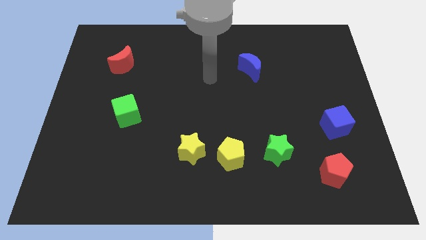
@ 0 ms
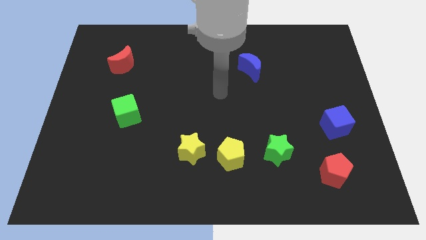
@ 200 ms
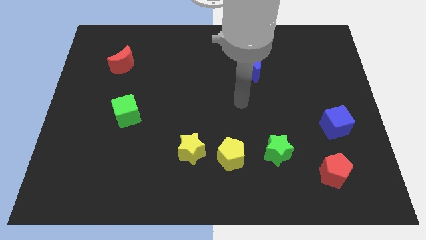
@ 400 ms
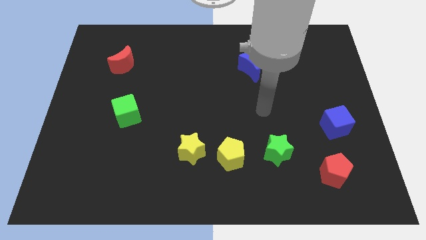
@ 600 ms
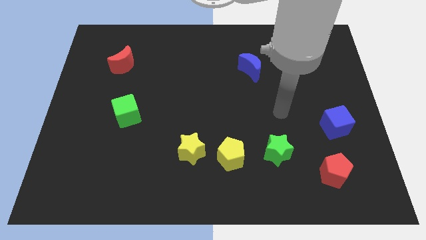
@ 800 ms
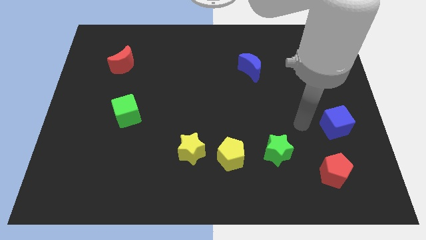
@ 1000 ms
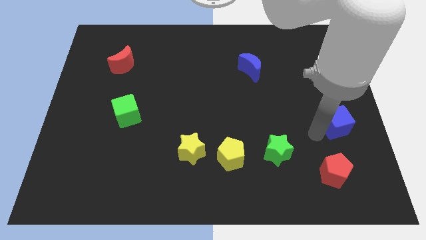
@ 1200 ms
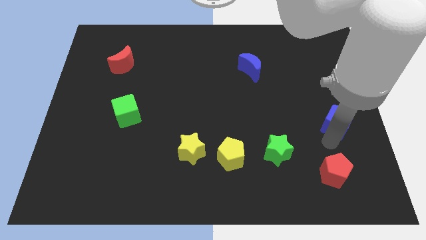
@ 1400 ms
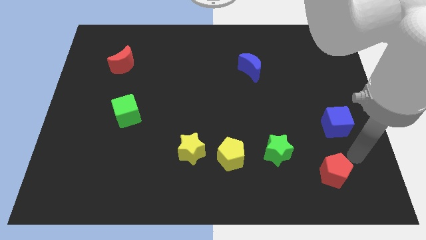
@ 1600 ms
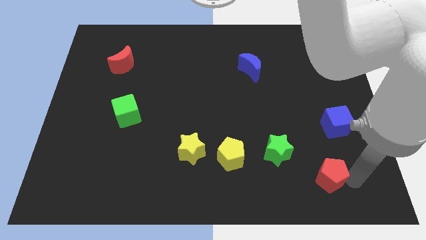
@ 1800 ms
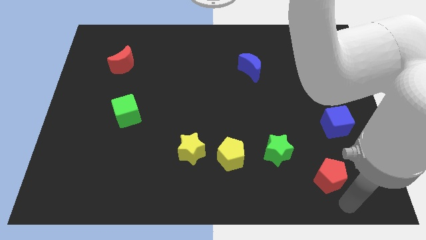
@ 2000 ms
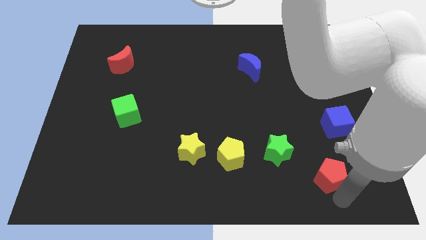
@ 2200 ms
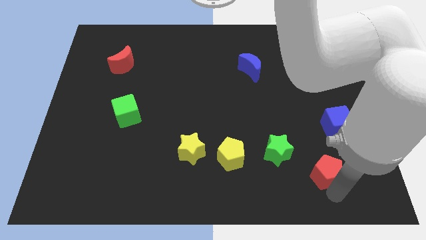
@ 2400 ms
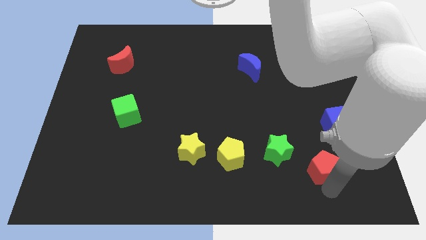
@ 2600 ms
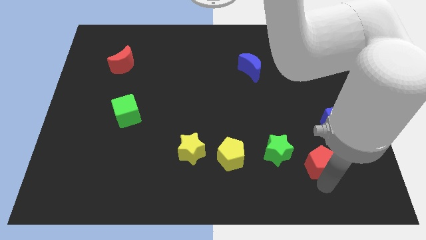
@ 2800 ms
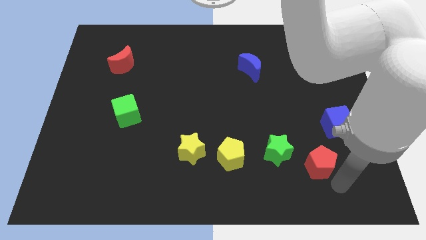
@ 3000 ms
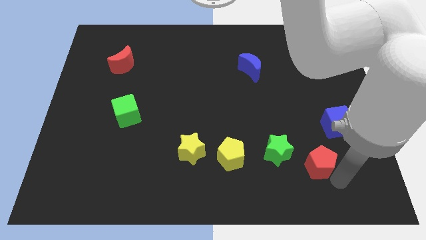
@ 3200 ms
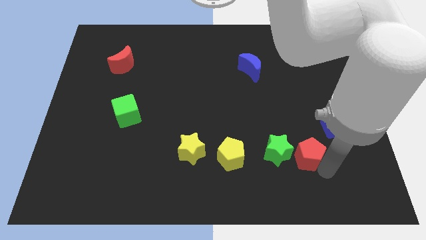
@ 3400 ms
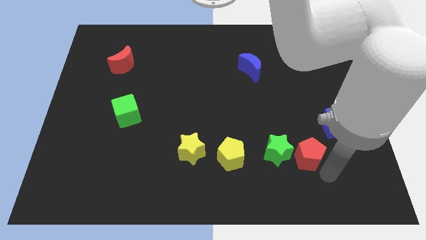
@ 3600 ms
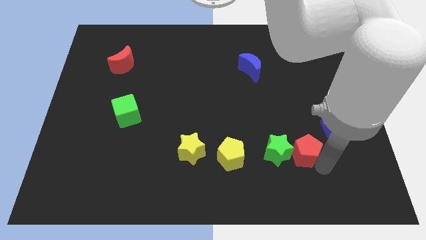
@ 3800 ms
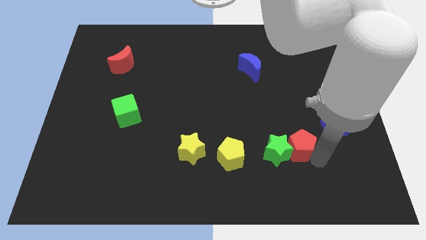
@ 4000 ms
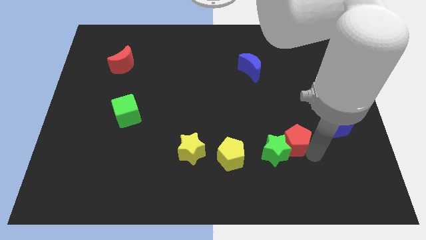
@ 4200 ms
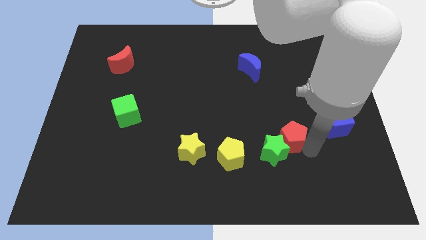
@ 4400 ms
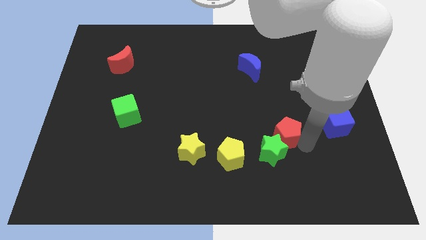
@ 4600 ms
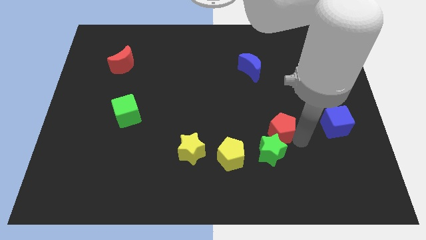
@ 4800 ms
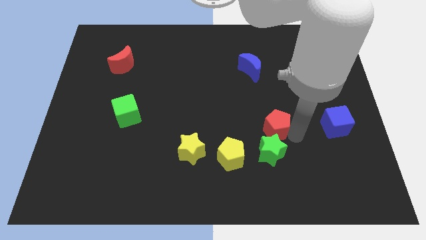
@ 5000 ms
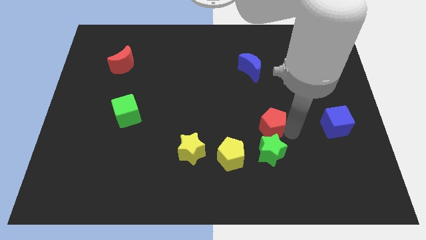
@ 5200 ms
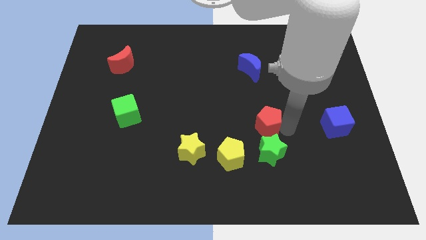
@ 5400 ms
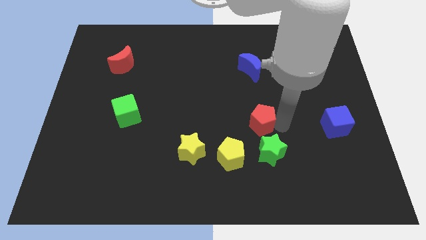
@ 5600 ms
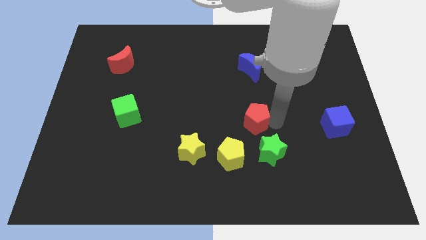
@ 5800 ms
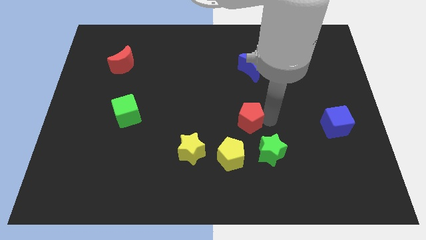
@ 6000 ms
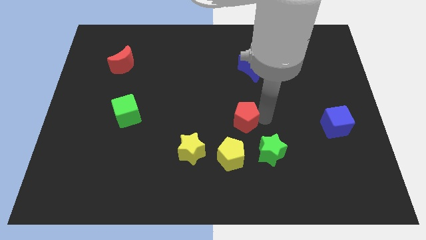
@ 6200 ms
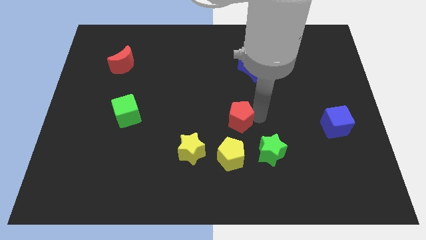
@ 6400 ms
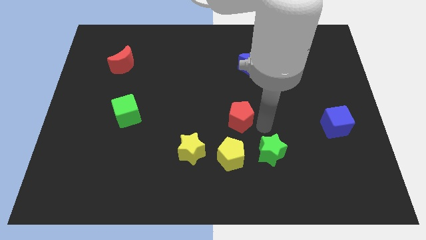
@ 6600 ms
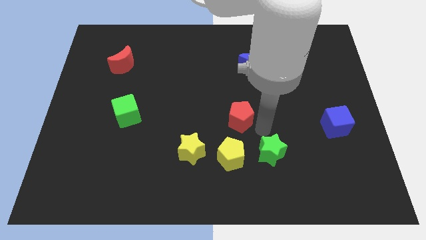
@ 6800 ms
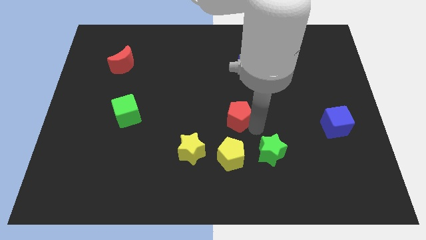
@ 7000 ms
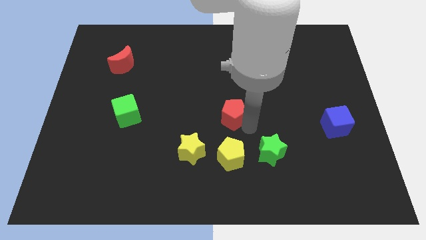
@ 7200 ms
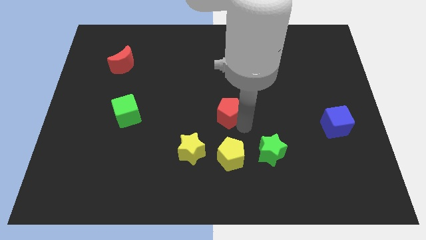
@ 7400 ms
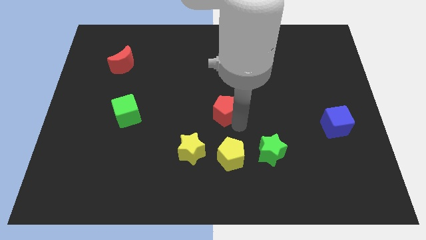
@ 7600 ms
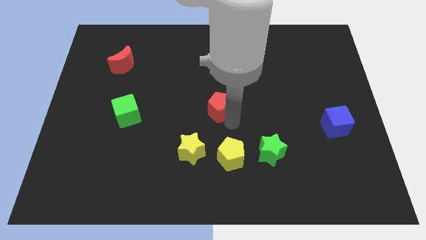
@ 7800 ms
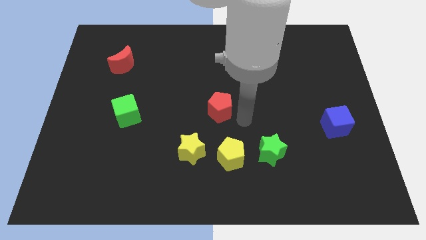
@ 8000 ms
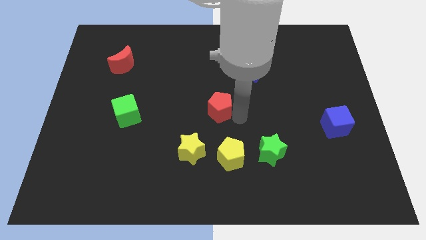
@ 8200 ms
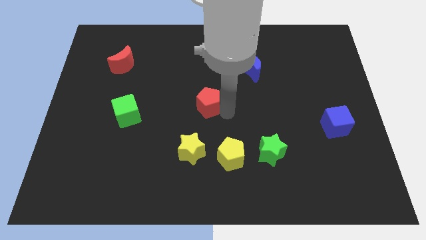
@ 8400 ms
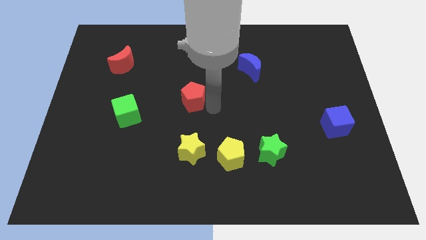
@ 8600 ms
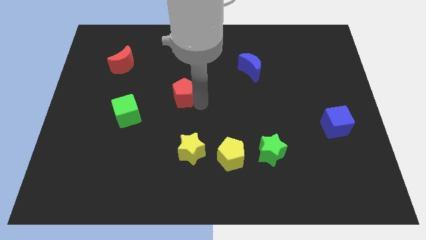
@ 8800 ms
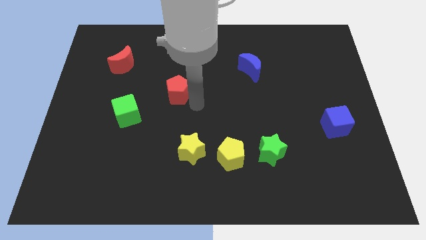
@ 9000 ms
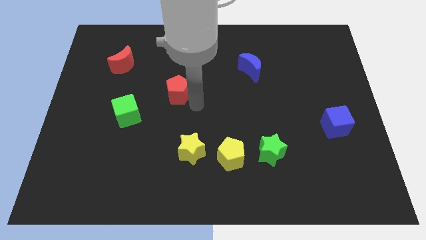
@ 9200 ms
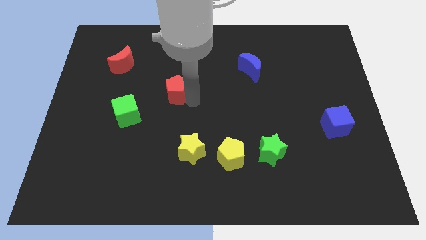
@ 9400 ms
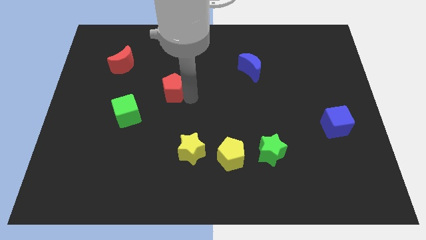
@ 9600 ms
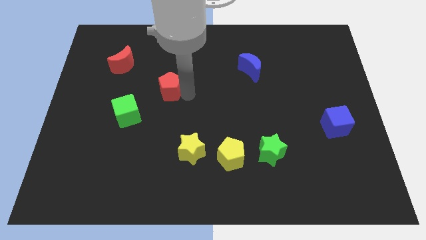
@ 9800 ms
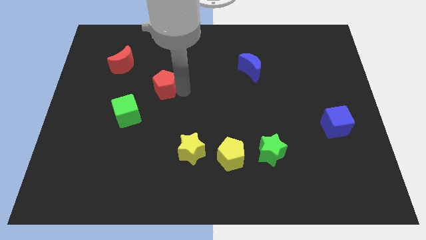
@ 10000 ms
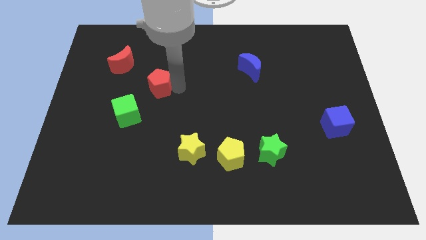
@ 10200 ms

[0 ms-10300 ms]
push the red pentagon to the bottom right side of the red moon

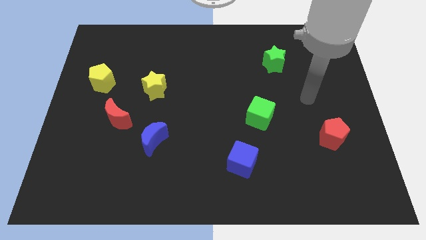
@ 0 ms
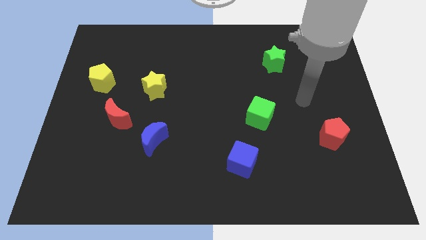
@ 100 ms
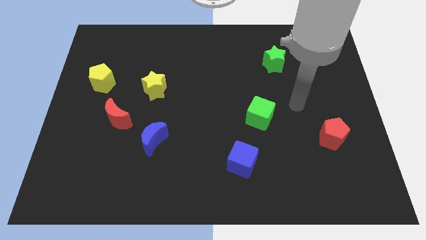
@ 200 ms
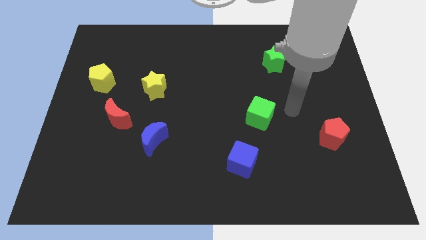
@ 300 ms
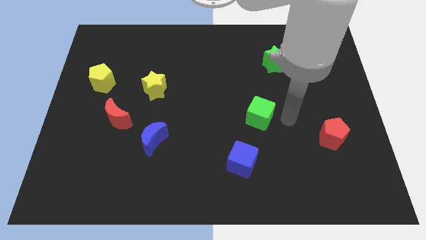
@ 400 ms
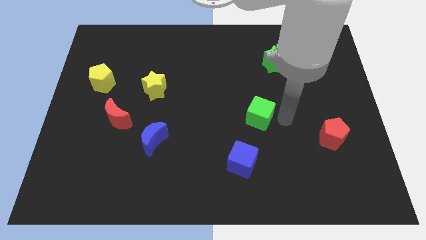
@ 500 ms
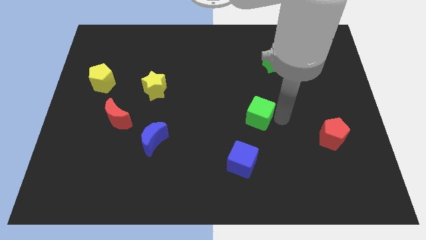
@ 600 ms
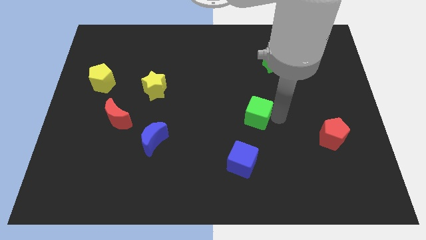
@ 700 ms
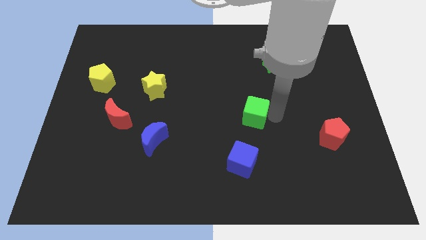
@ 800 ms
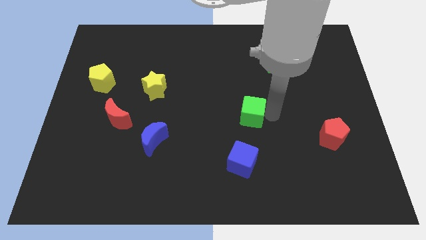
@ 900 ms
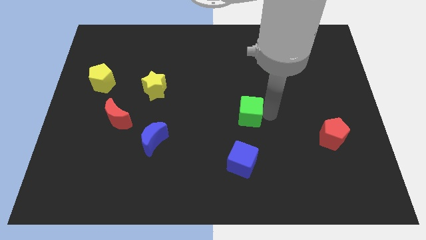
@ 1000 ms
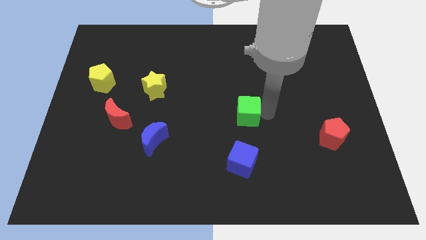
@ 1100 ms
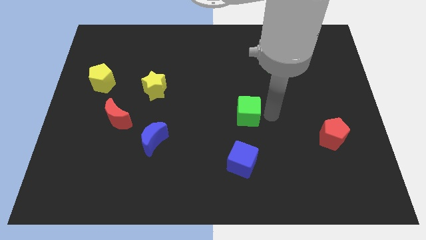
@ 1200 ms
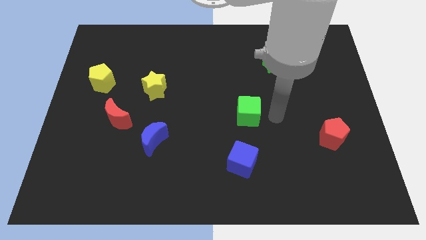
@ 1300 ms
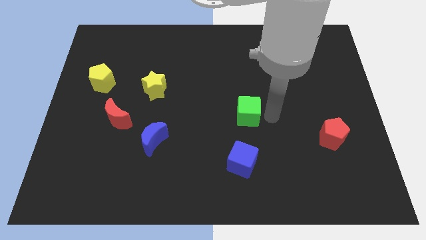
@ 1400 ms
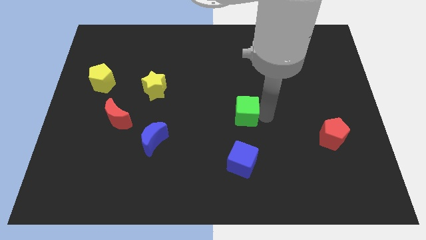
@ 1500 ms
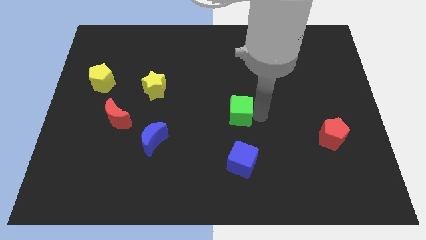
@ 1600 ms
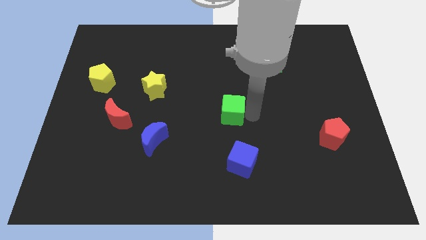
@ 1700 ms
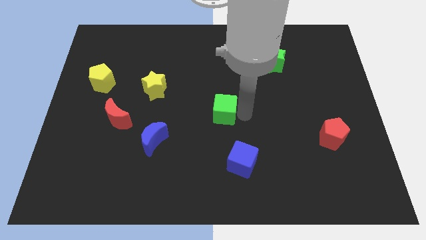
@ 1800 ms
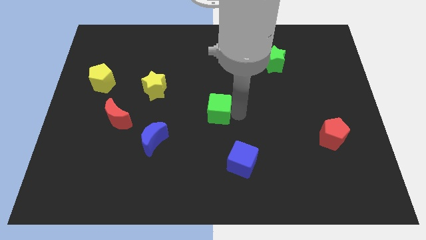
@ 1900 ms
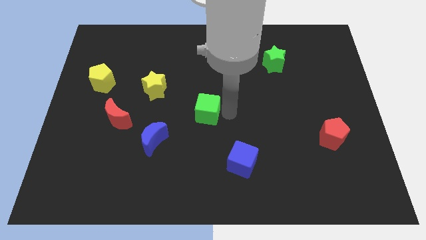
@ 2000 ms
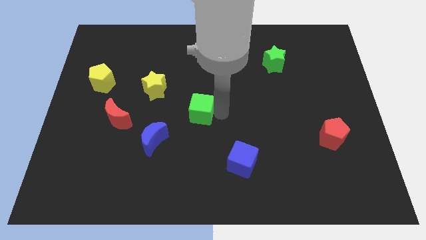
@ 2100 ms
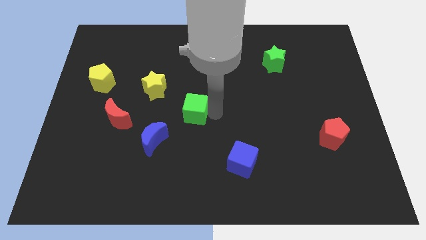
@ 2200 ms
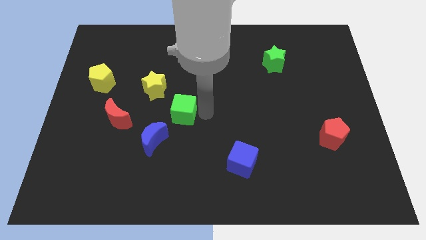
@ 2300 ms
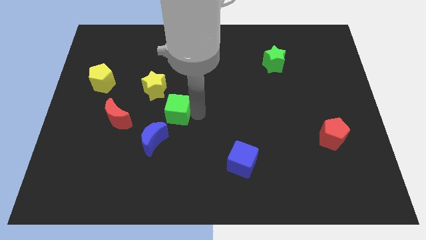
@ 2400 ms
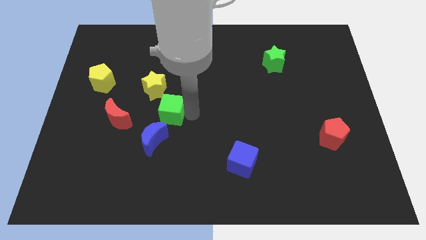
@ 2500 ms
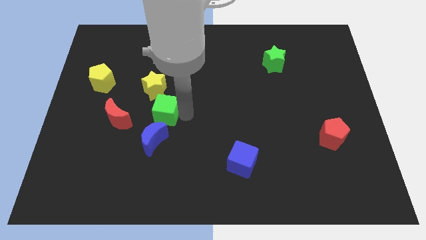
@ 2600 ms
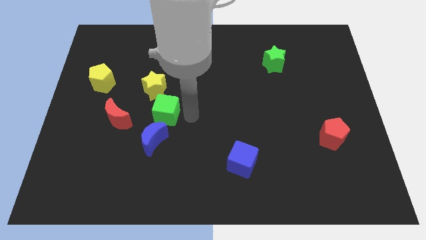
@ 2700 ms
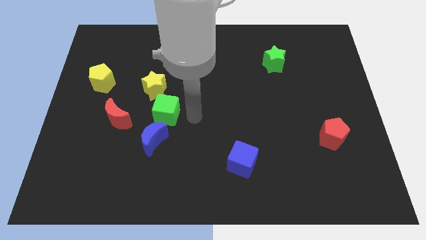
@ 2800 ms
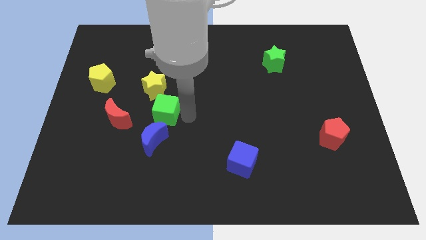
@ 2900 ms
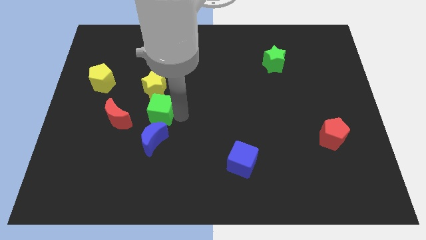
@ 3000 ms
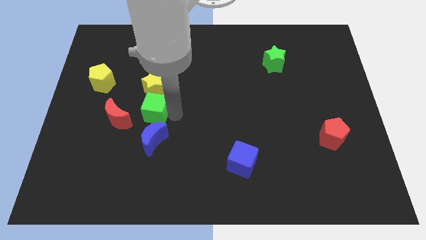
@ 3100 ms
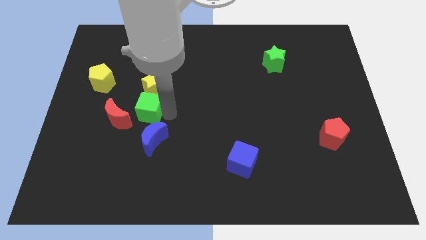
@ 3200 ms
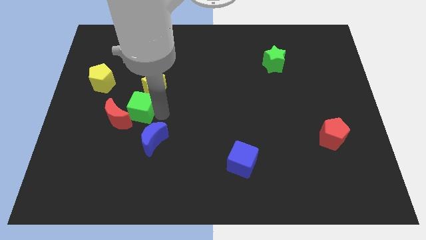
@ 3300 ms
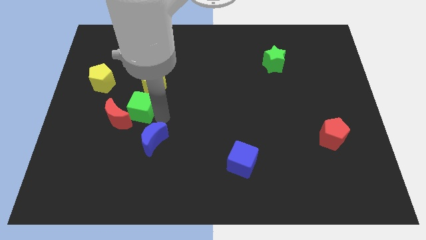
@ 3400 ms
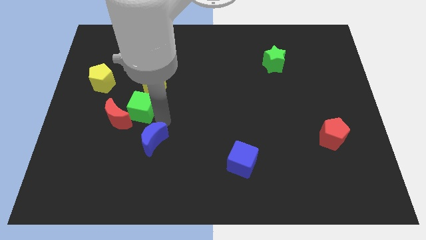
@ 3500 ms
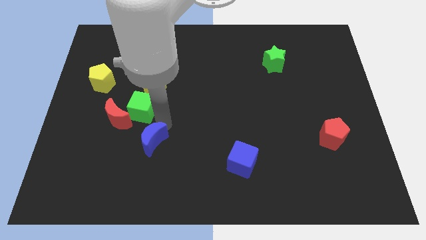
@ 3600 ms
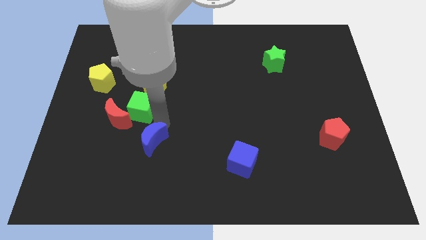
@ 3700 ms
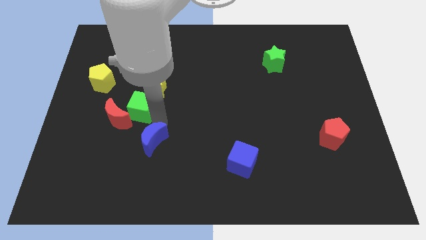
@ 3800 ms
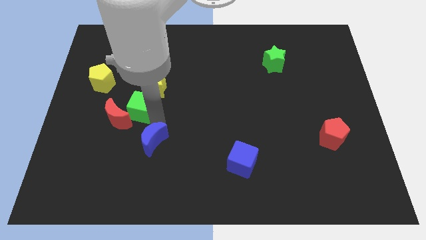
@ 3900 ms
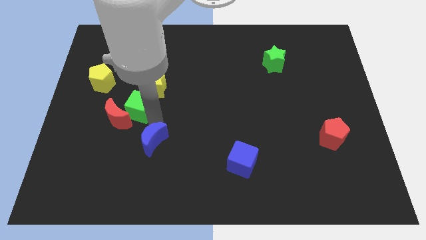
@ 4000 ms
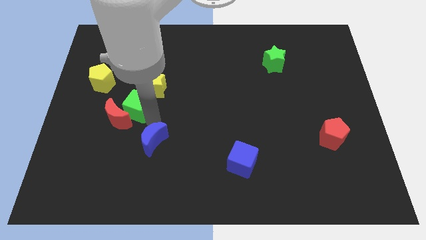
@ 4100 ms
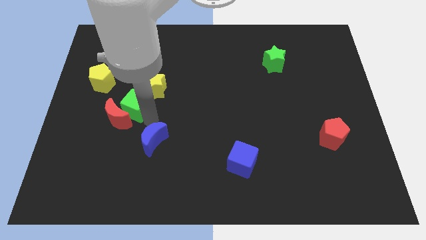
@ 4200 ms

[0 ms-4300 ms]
slide the green cube to the top of the red moon
